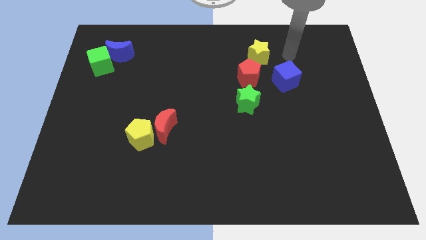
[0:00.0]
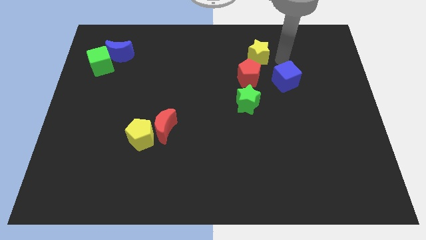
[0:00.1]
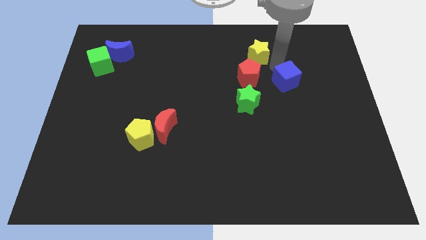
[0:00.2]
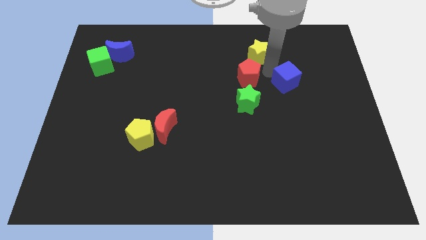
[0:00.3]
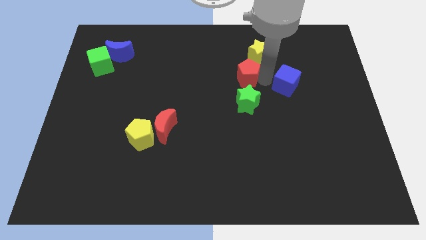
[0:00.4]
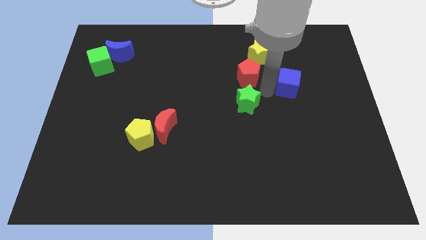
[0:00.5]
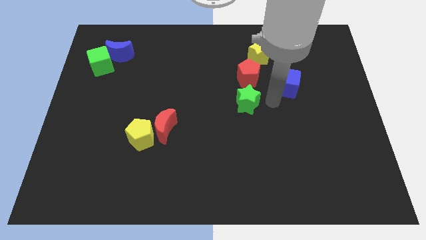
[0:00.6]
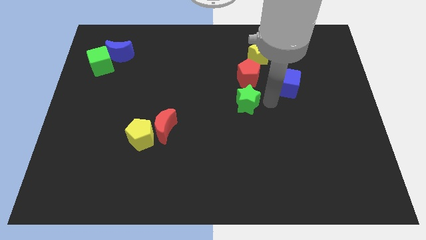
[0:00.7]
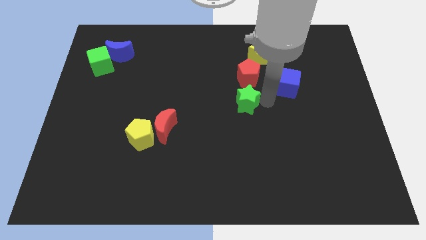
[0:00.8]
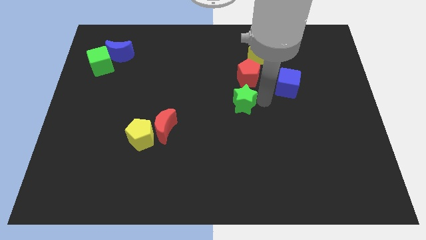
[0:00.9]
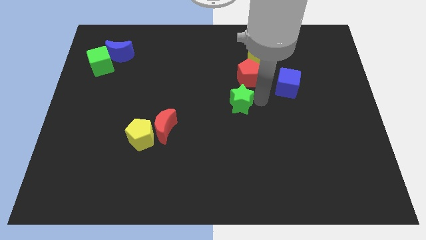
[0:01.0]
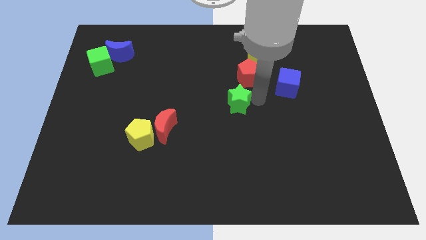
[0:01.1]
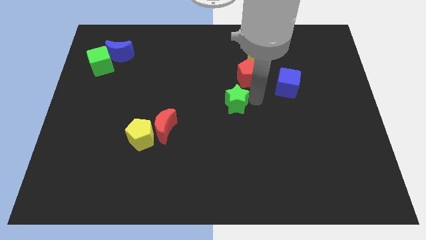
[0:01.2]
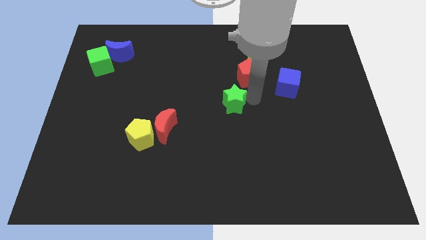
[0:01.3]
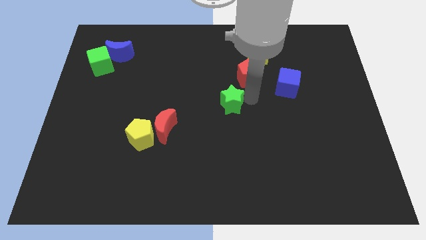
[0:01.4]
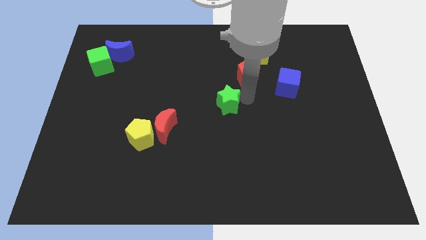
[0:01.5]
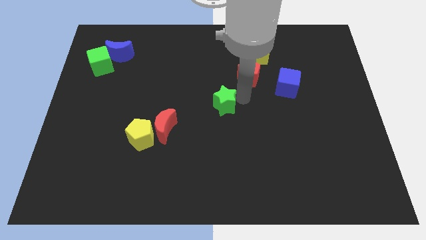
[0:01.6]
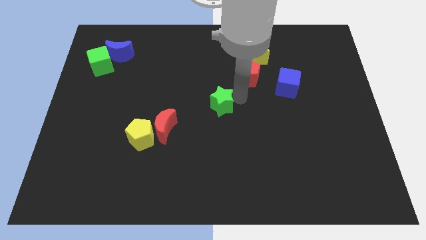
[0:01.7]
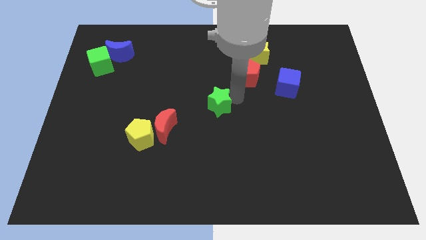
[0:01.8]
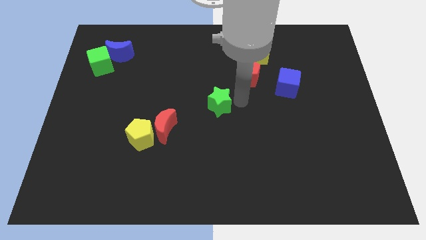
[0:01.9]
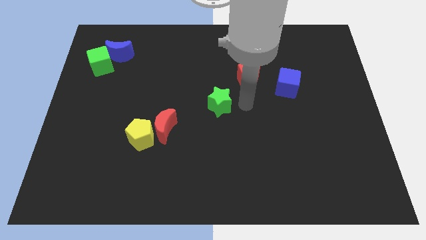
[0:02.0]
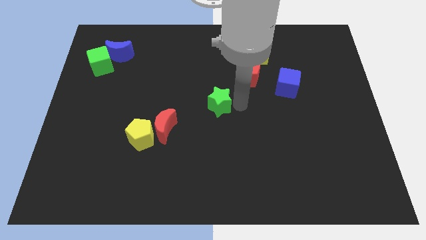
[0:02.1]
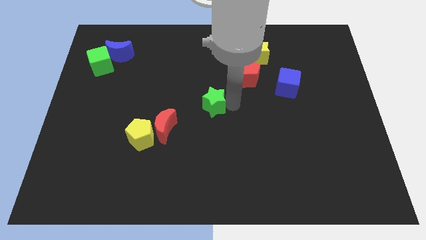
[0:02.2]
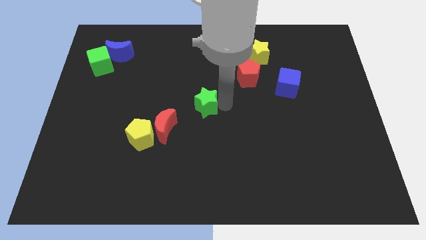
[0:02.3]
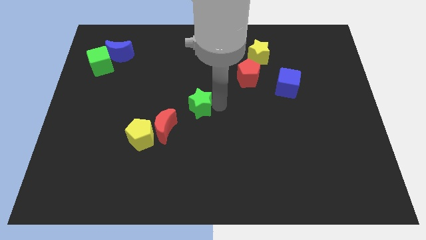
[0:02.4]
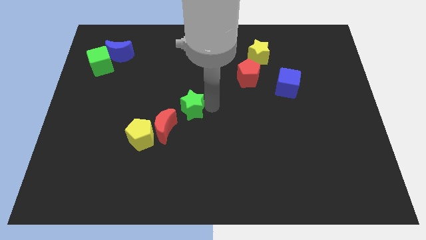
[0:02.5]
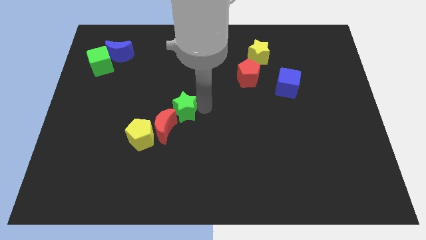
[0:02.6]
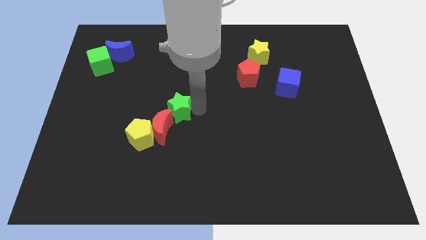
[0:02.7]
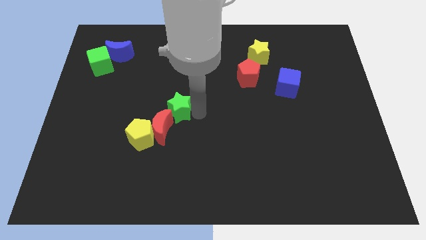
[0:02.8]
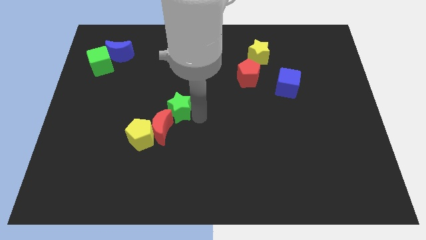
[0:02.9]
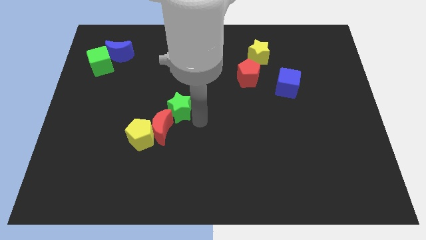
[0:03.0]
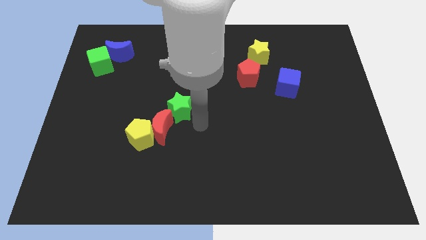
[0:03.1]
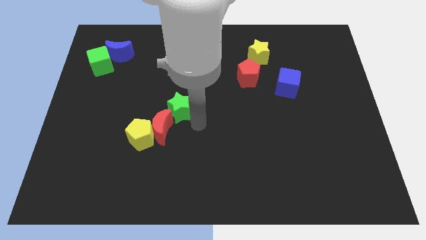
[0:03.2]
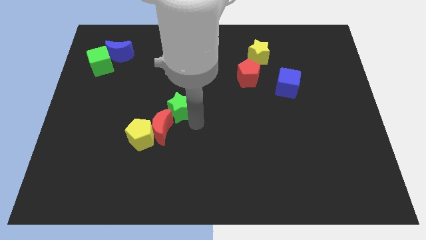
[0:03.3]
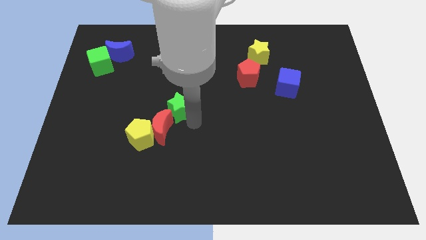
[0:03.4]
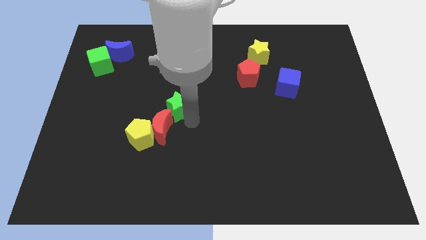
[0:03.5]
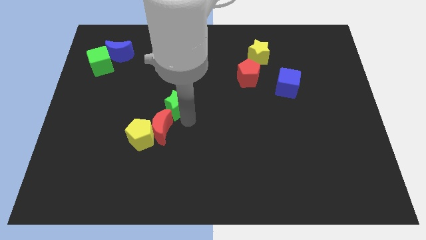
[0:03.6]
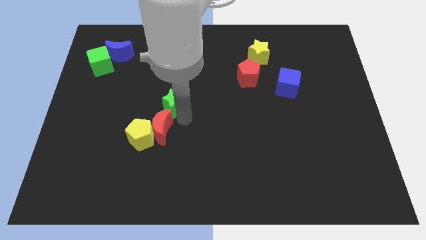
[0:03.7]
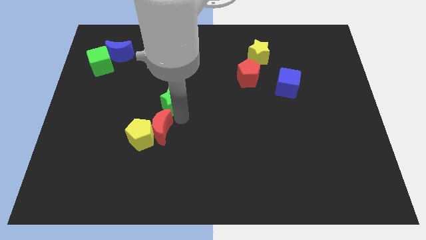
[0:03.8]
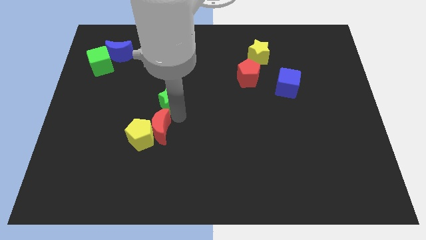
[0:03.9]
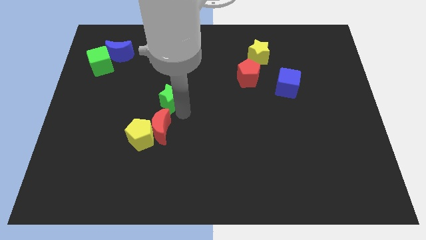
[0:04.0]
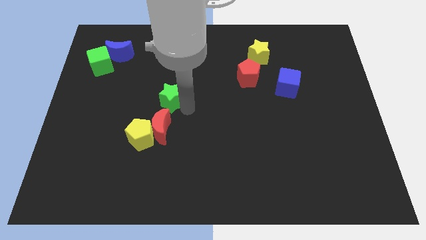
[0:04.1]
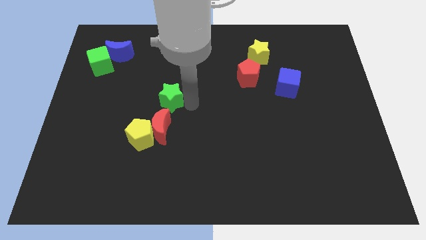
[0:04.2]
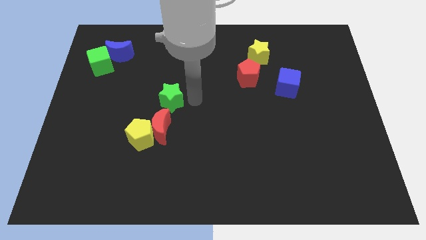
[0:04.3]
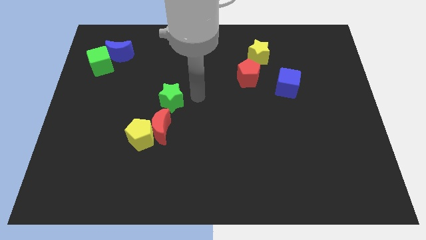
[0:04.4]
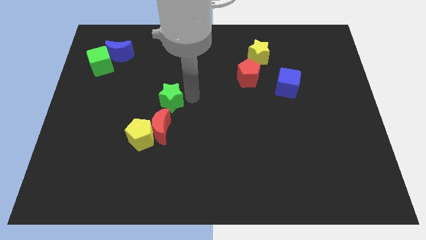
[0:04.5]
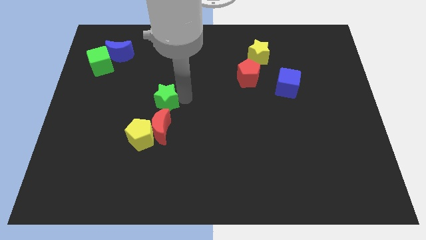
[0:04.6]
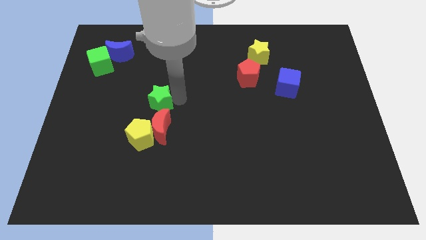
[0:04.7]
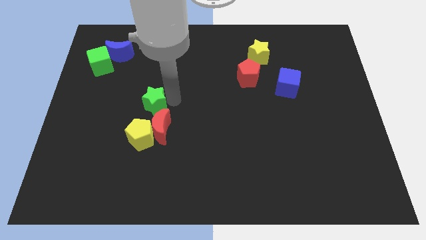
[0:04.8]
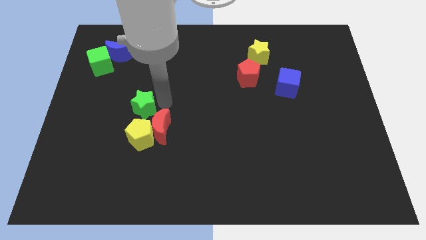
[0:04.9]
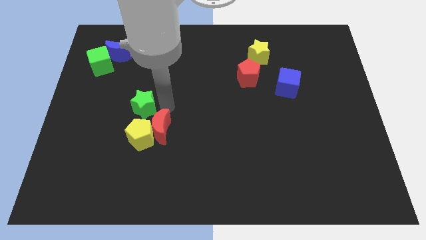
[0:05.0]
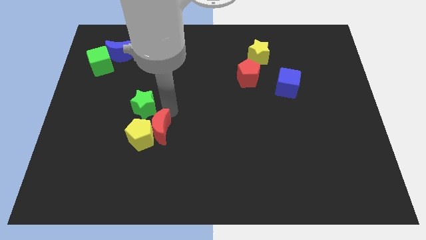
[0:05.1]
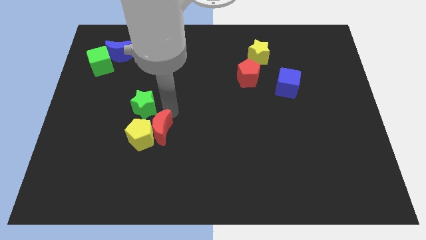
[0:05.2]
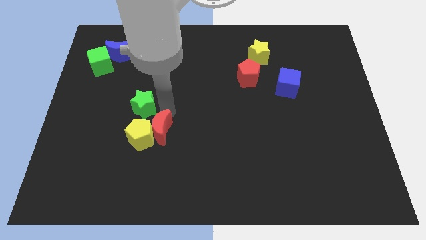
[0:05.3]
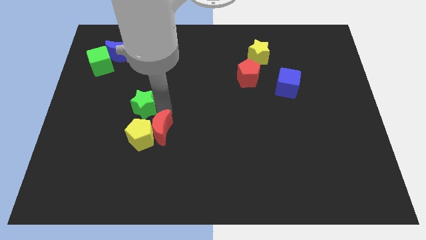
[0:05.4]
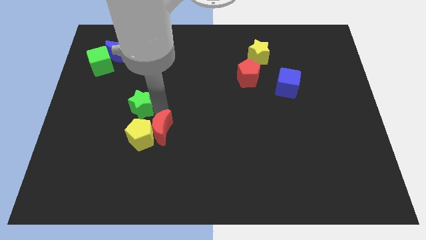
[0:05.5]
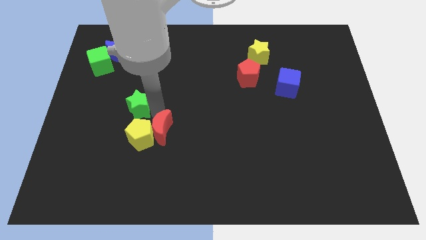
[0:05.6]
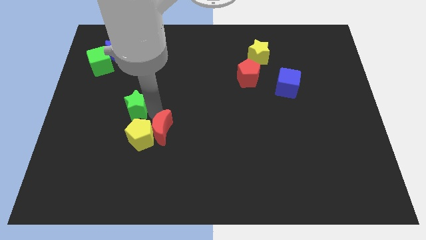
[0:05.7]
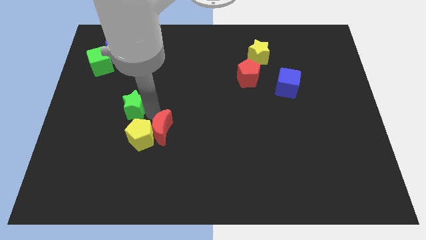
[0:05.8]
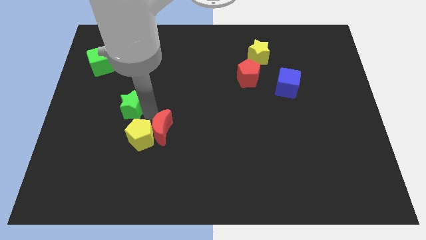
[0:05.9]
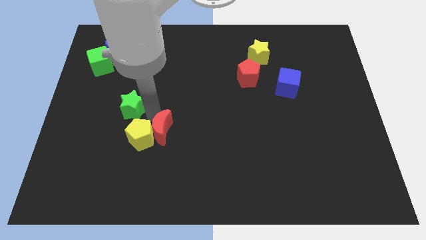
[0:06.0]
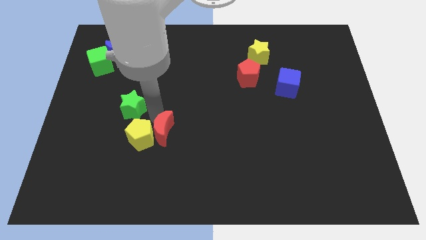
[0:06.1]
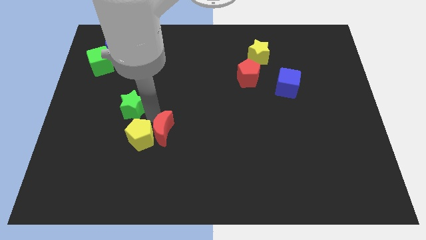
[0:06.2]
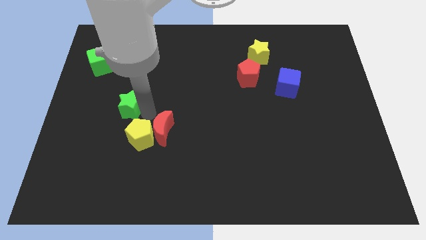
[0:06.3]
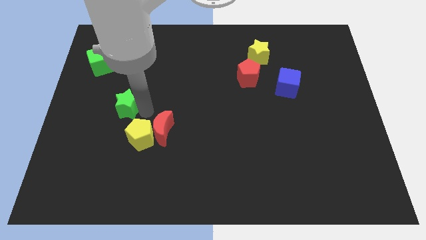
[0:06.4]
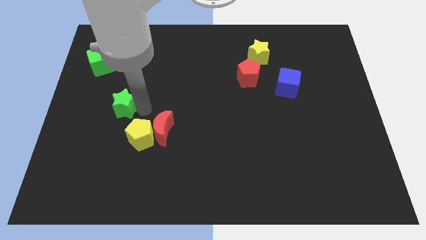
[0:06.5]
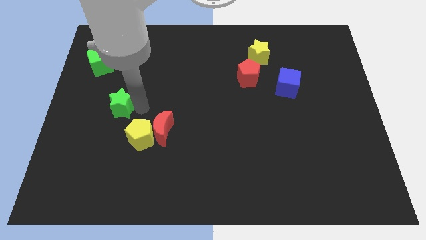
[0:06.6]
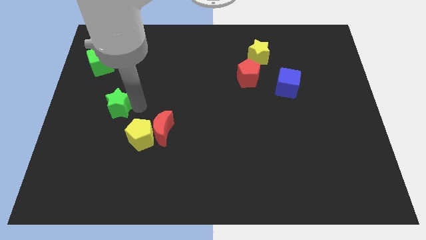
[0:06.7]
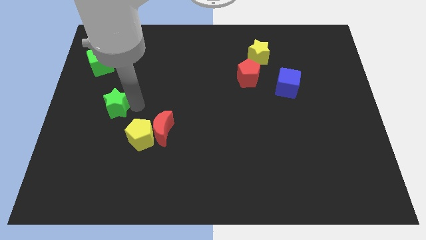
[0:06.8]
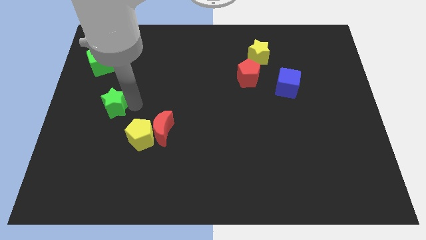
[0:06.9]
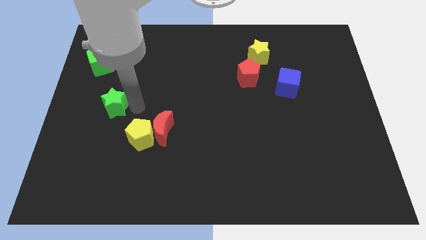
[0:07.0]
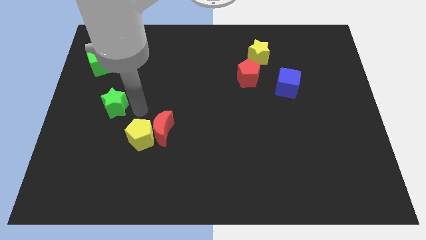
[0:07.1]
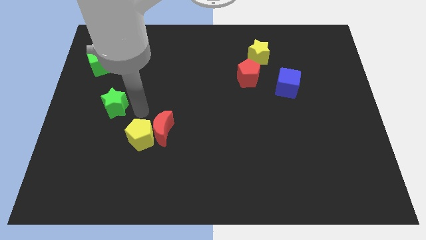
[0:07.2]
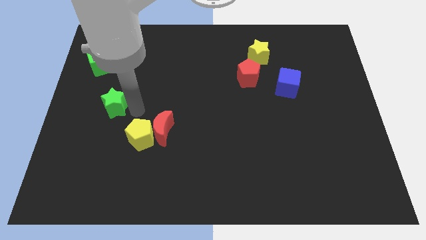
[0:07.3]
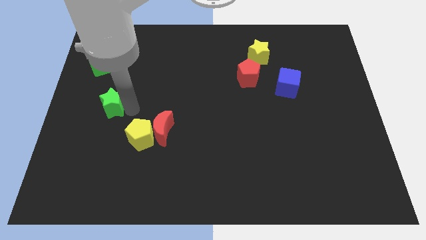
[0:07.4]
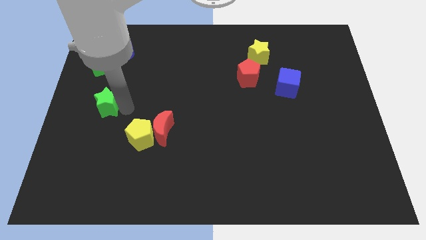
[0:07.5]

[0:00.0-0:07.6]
put the green star to the center left
